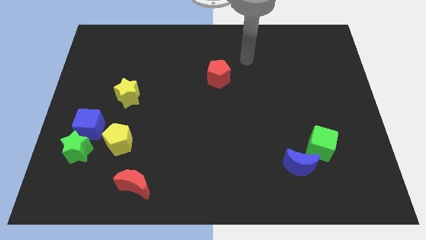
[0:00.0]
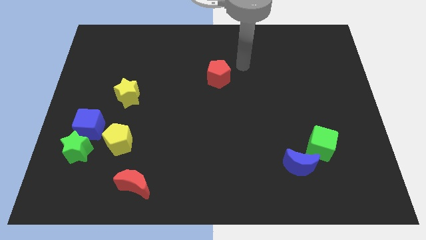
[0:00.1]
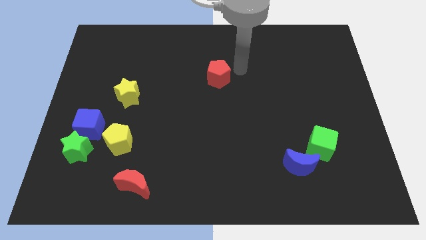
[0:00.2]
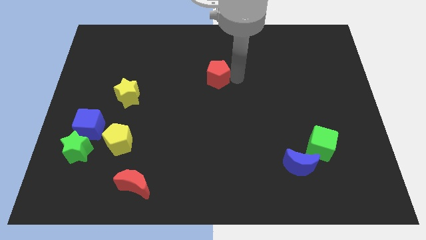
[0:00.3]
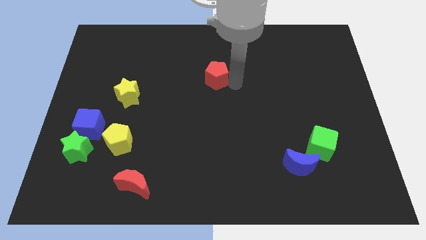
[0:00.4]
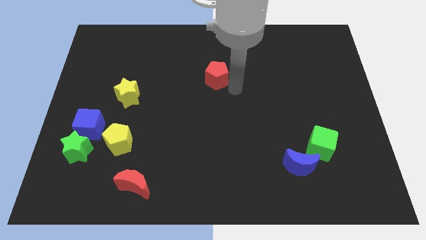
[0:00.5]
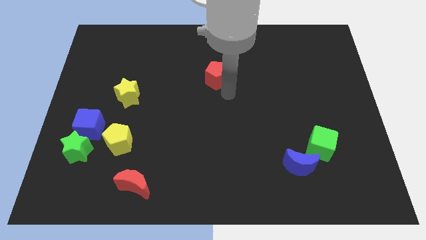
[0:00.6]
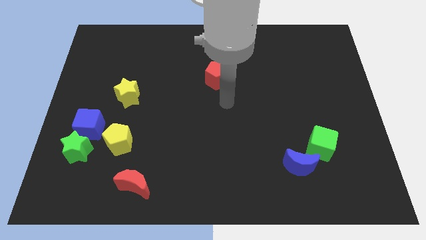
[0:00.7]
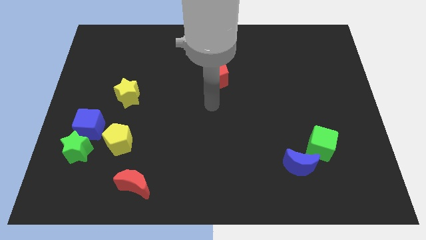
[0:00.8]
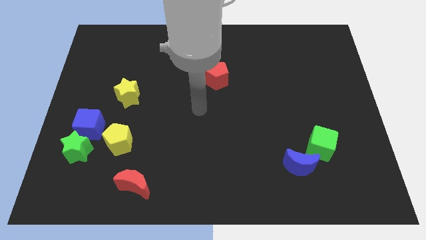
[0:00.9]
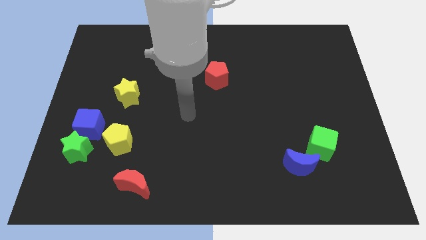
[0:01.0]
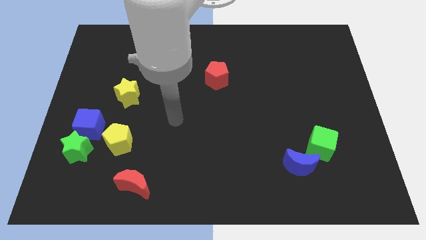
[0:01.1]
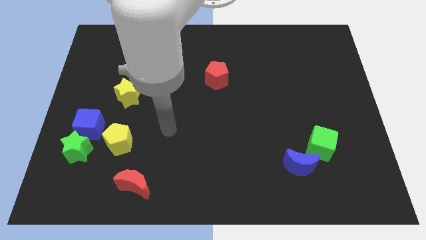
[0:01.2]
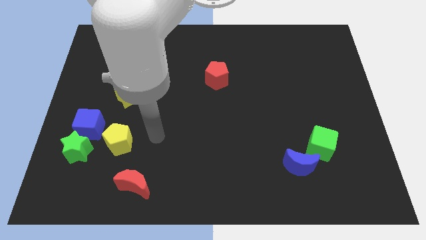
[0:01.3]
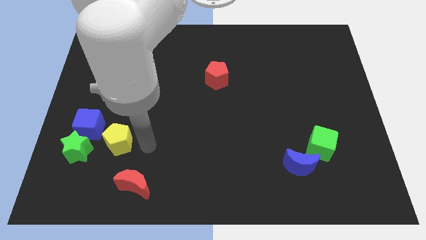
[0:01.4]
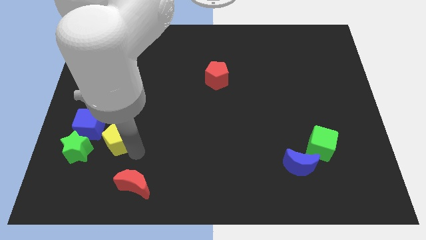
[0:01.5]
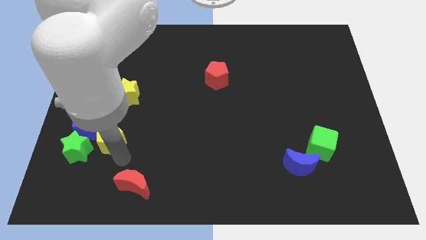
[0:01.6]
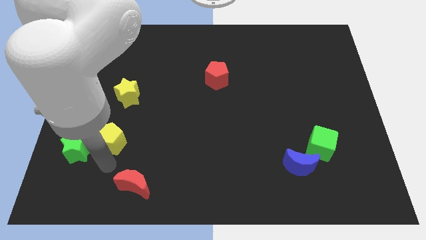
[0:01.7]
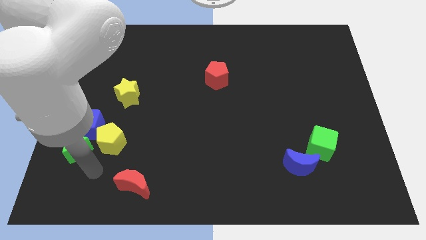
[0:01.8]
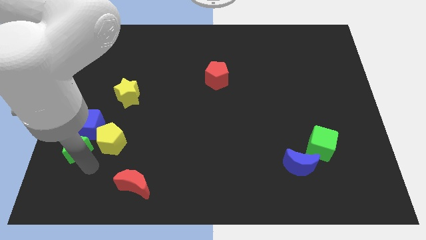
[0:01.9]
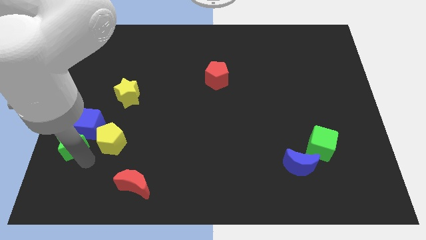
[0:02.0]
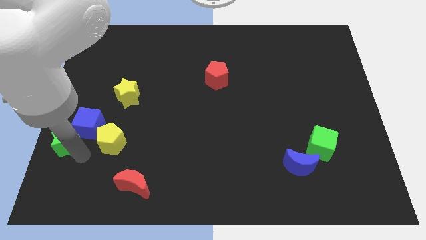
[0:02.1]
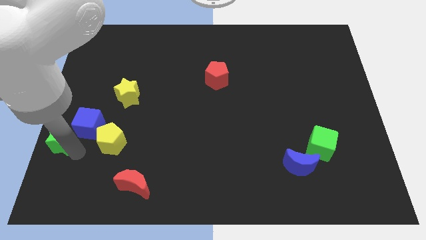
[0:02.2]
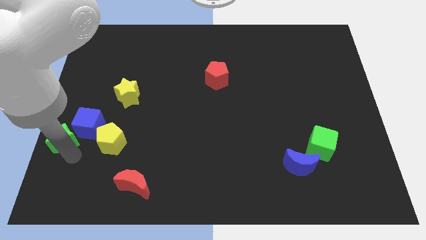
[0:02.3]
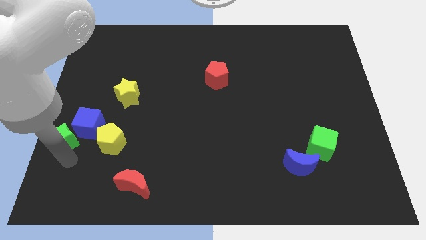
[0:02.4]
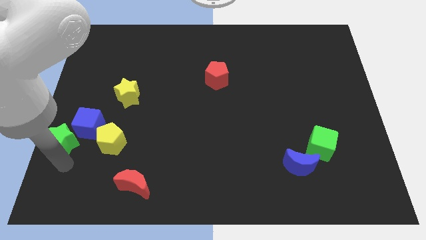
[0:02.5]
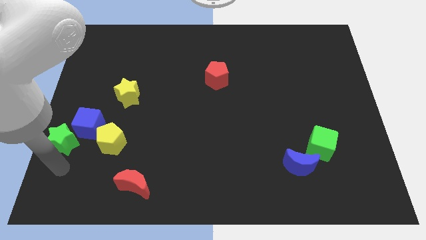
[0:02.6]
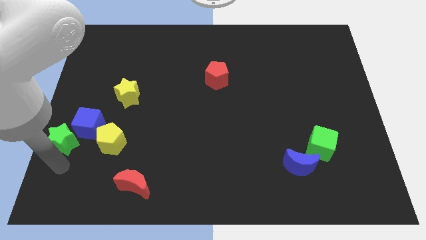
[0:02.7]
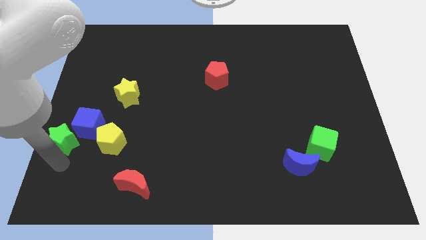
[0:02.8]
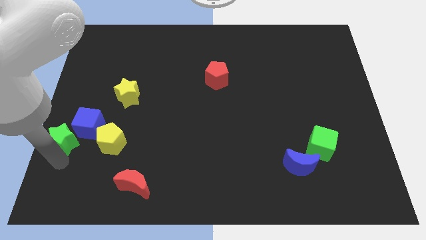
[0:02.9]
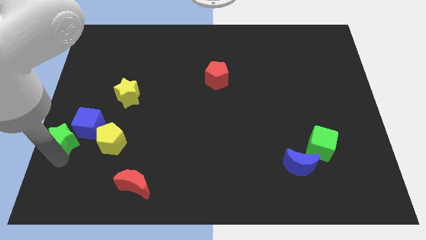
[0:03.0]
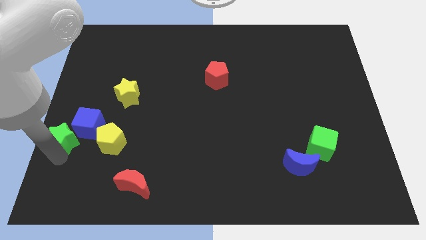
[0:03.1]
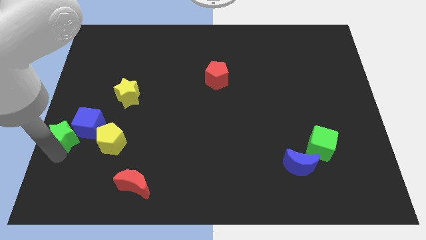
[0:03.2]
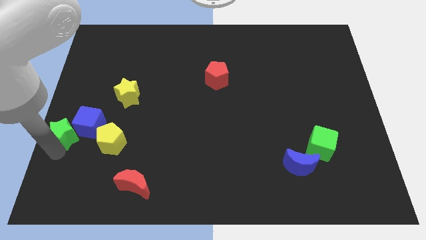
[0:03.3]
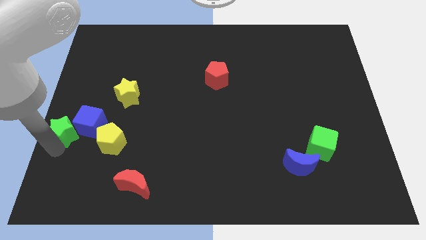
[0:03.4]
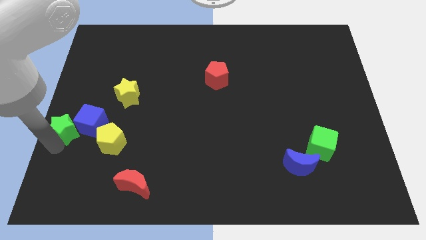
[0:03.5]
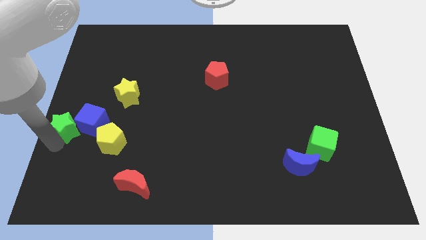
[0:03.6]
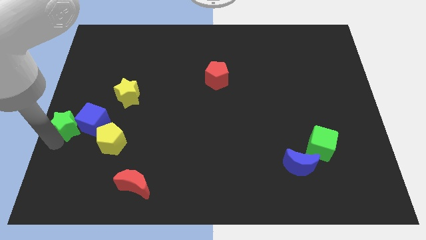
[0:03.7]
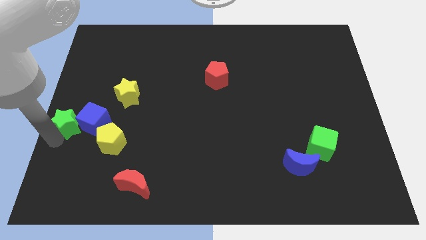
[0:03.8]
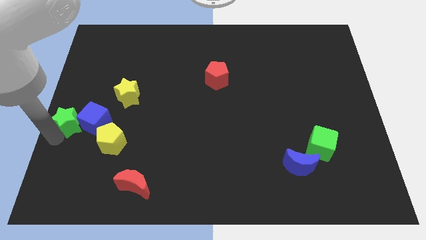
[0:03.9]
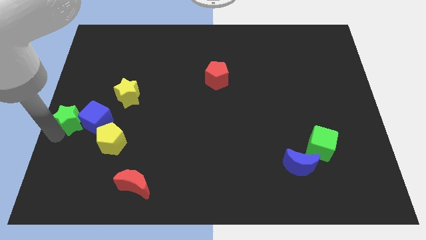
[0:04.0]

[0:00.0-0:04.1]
push the green star a bit up

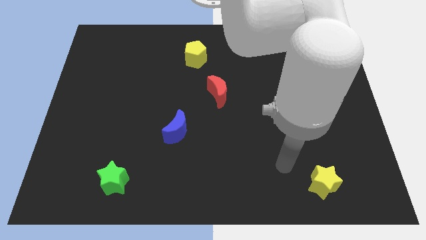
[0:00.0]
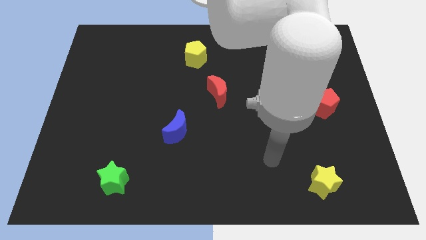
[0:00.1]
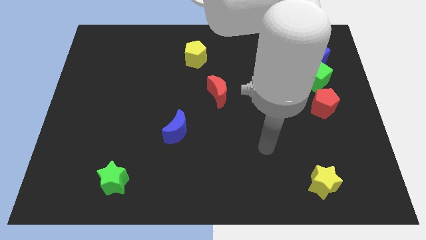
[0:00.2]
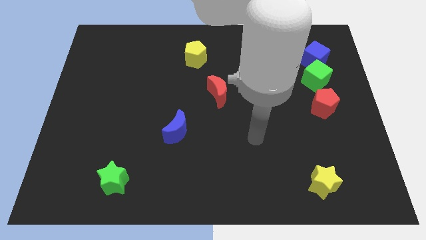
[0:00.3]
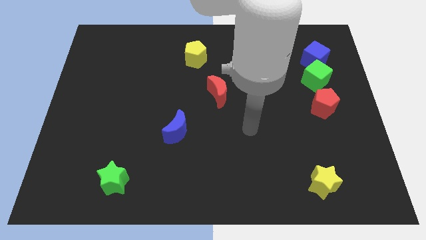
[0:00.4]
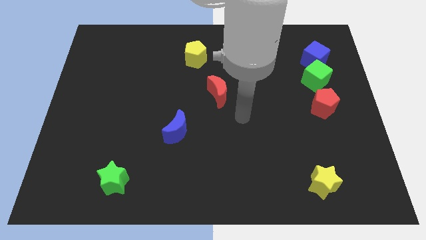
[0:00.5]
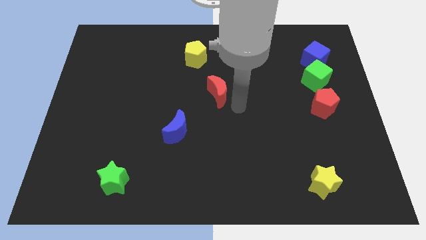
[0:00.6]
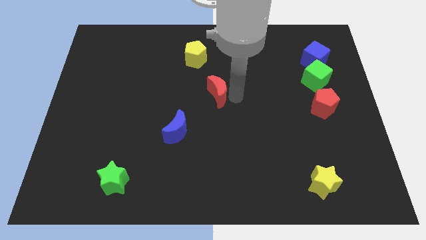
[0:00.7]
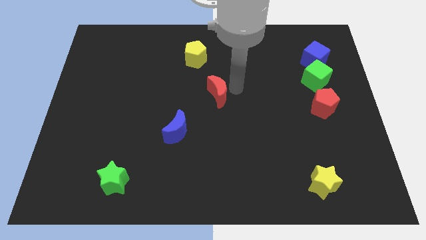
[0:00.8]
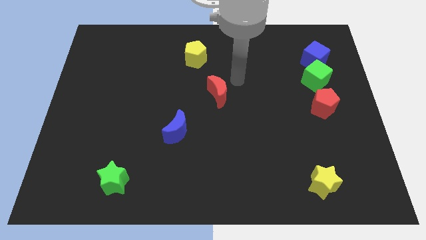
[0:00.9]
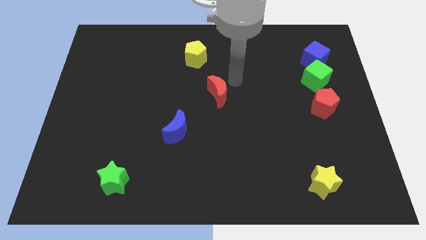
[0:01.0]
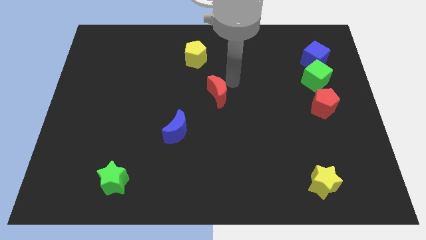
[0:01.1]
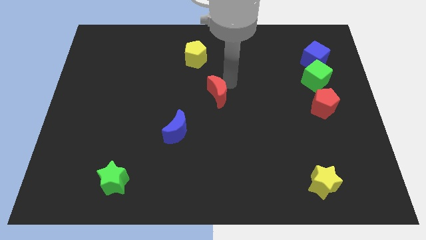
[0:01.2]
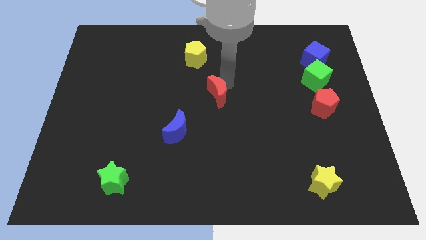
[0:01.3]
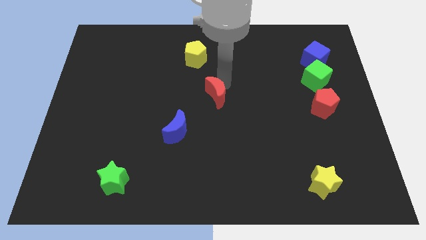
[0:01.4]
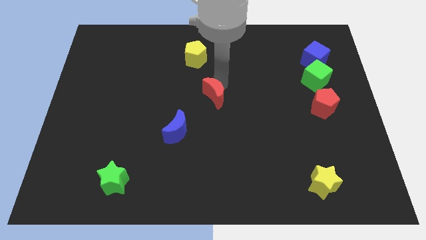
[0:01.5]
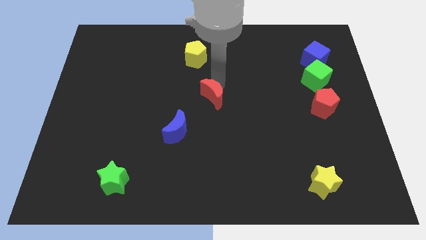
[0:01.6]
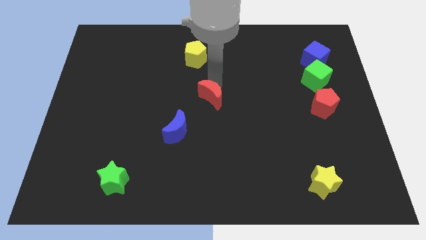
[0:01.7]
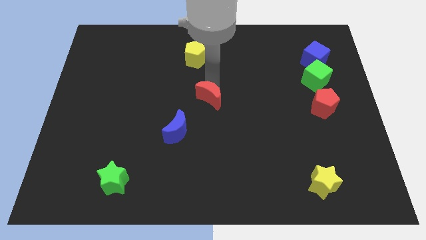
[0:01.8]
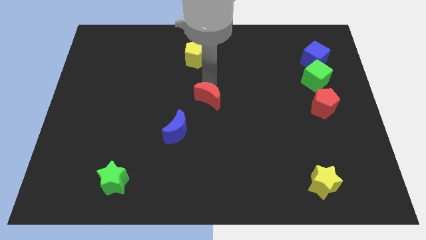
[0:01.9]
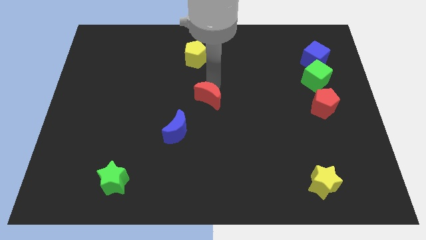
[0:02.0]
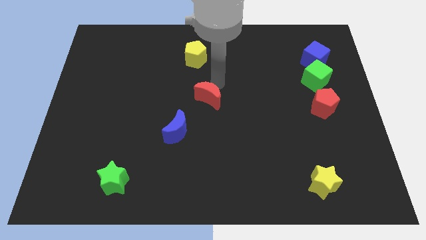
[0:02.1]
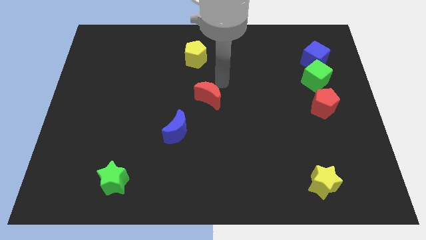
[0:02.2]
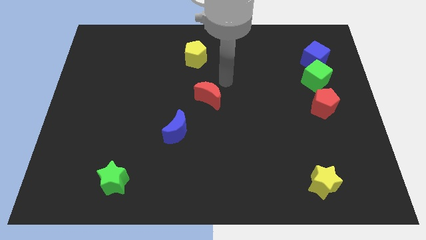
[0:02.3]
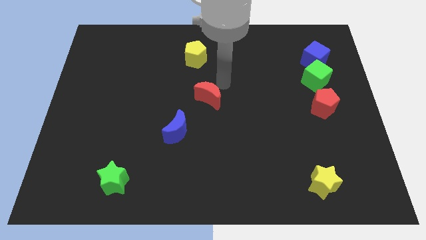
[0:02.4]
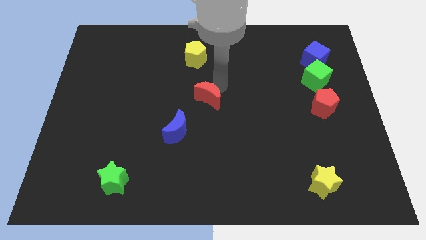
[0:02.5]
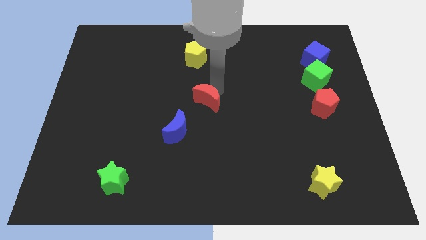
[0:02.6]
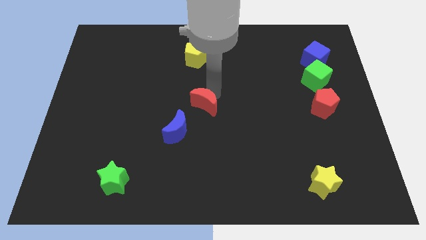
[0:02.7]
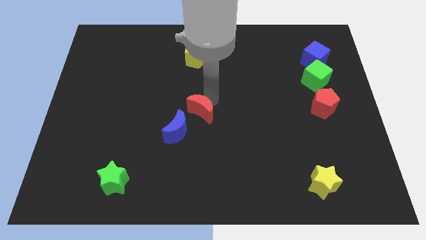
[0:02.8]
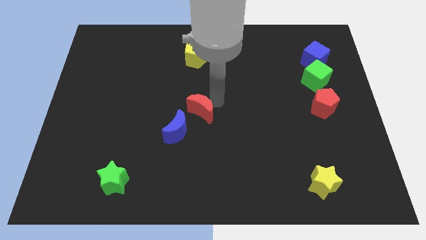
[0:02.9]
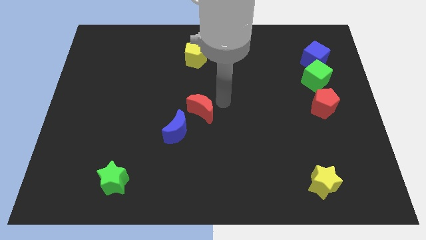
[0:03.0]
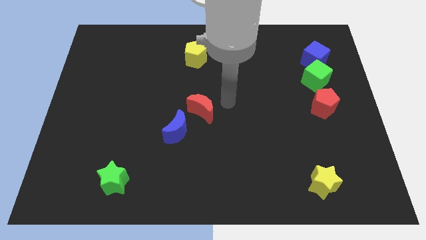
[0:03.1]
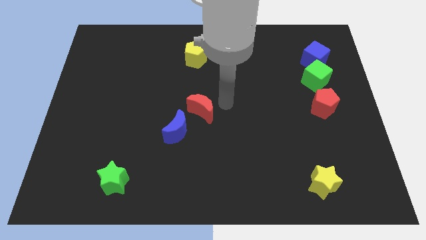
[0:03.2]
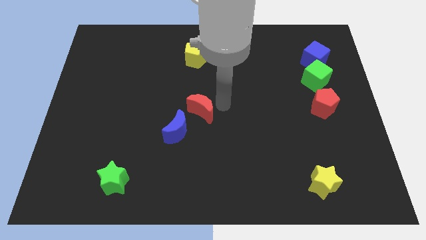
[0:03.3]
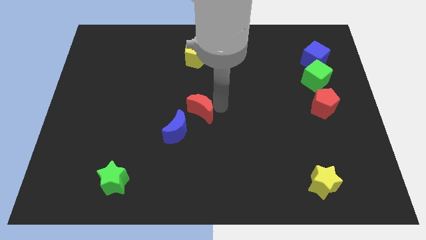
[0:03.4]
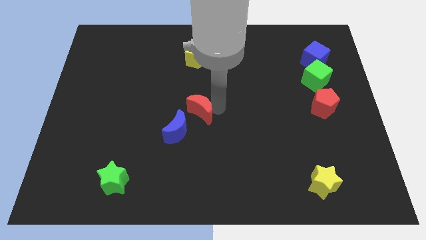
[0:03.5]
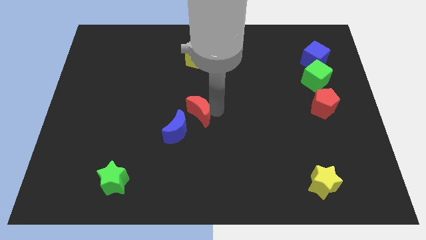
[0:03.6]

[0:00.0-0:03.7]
move the red moon diagonally downwards and left slightly

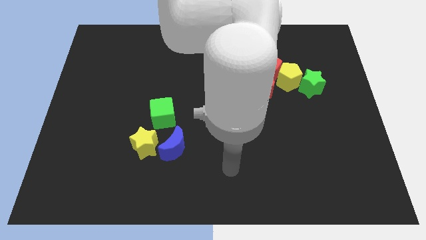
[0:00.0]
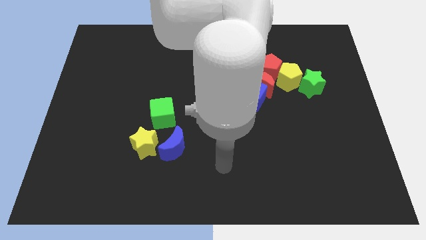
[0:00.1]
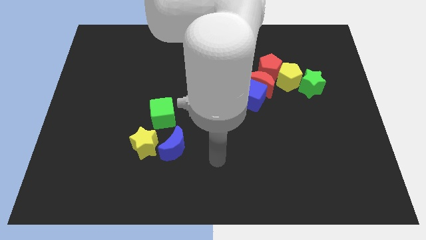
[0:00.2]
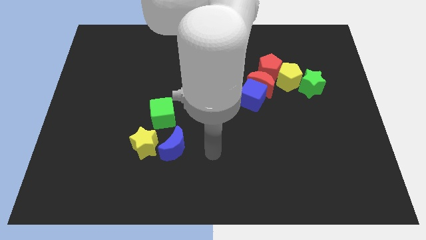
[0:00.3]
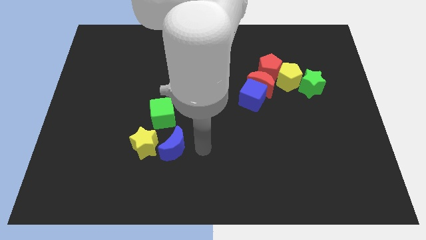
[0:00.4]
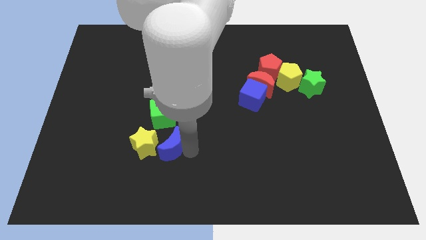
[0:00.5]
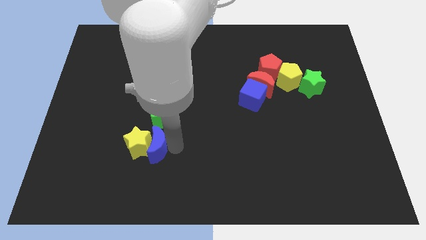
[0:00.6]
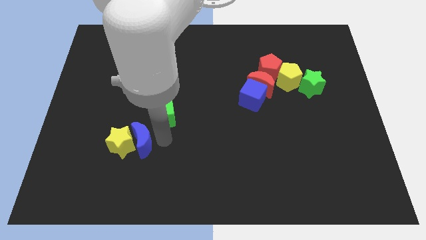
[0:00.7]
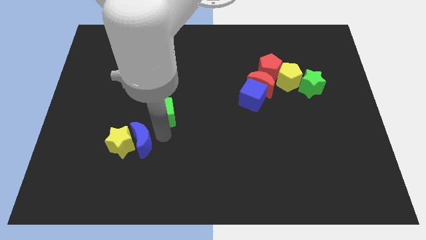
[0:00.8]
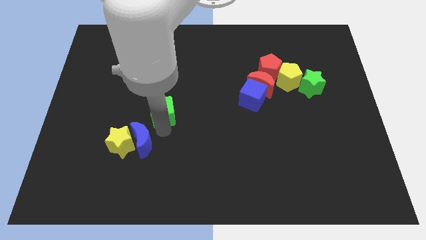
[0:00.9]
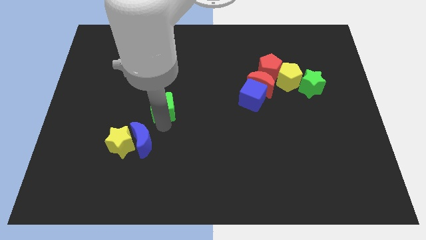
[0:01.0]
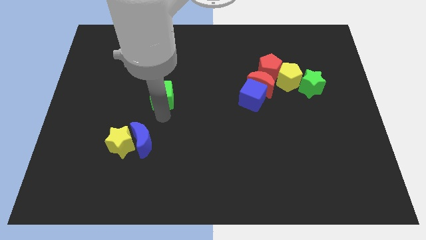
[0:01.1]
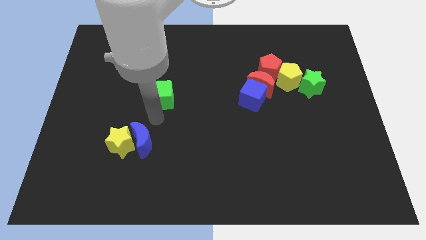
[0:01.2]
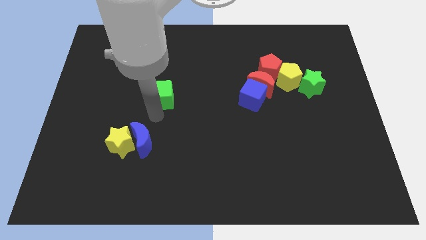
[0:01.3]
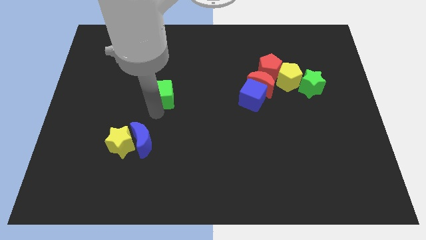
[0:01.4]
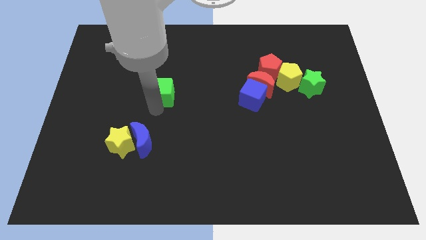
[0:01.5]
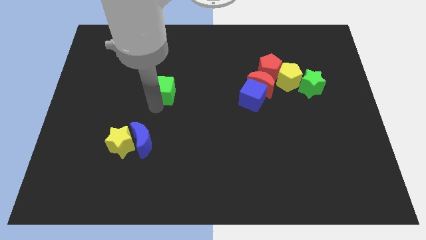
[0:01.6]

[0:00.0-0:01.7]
slightly slide the green cube upwards
